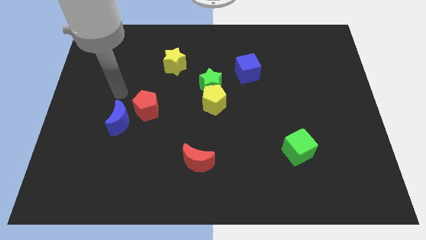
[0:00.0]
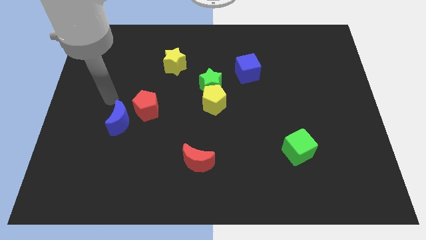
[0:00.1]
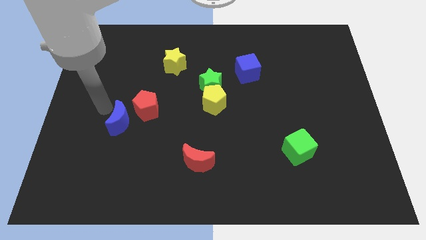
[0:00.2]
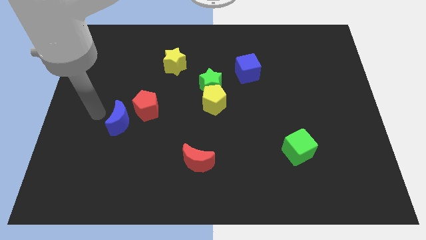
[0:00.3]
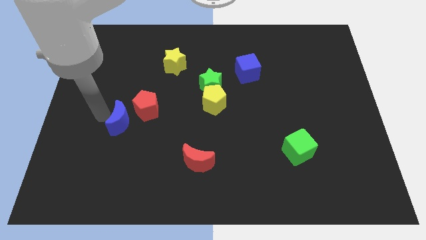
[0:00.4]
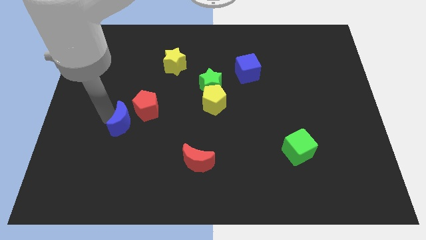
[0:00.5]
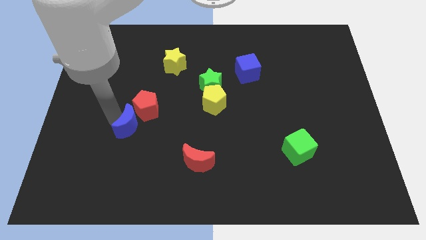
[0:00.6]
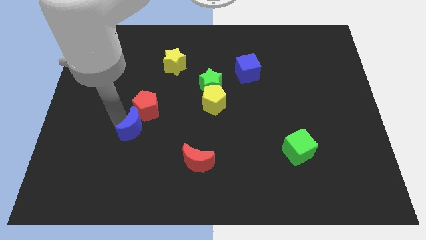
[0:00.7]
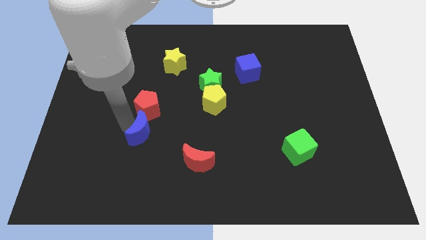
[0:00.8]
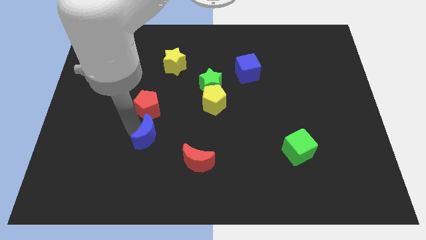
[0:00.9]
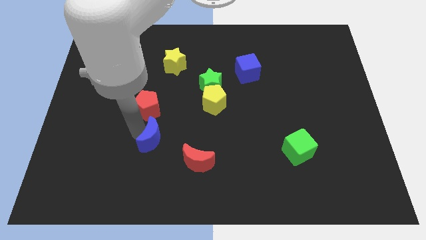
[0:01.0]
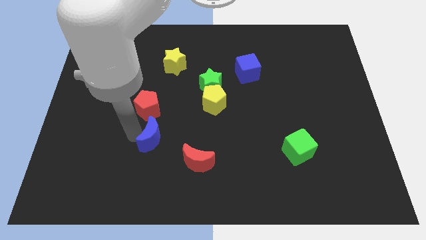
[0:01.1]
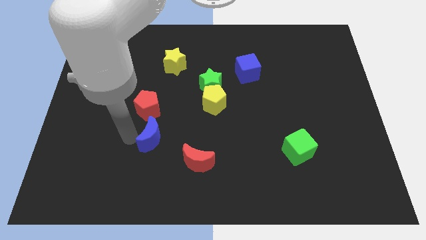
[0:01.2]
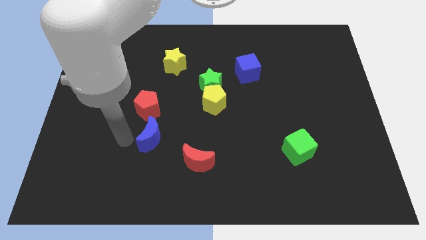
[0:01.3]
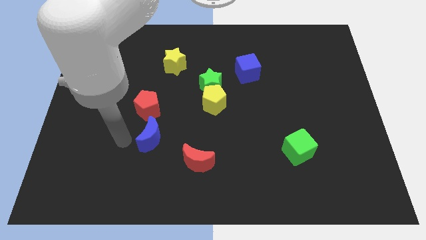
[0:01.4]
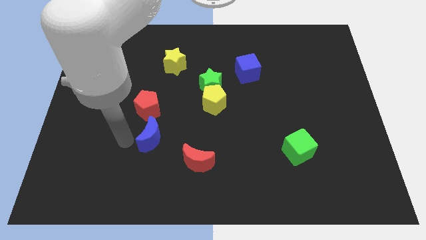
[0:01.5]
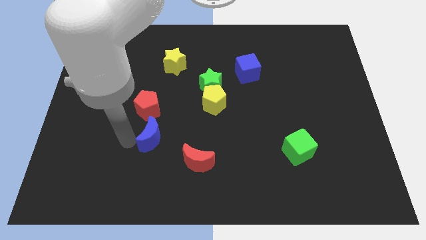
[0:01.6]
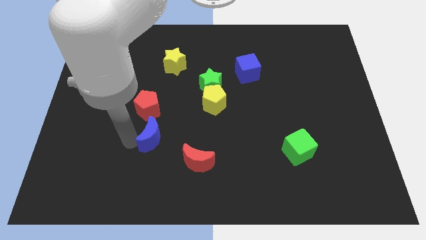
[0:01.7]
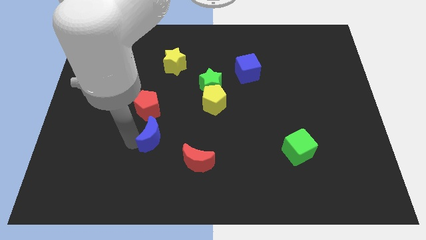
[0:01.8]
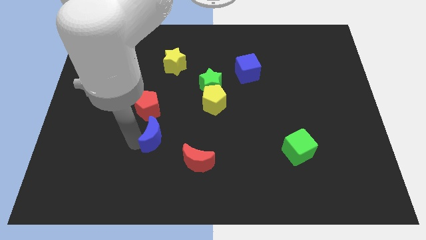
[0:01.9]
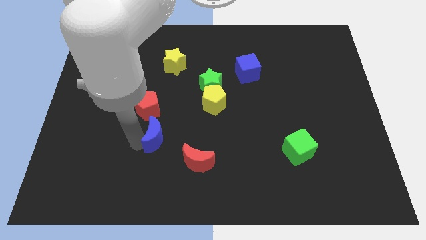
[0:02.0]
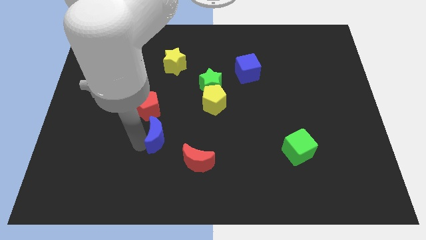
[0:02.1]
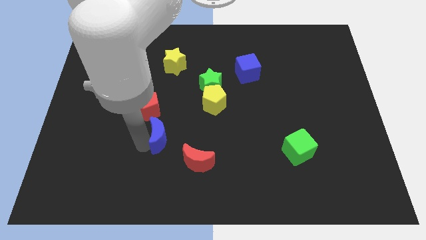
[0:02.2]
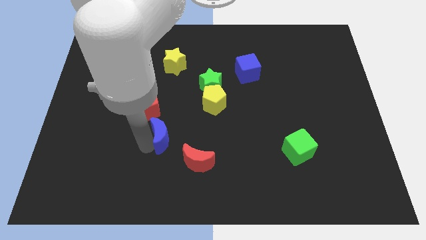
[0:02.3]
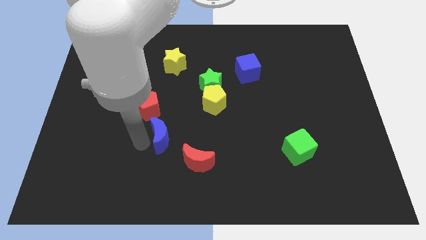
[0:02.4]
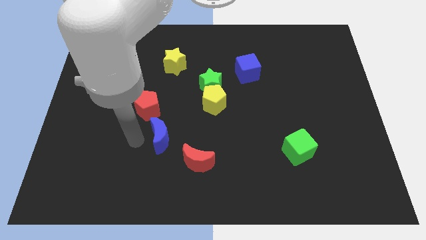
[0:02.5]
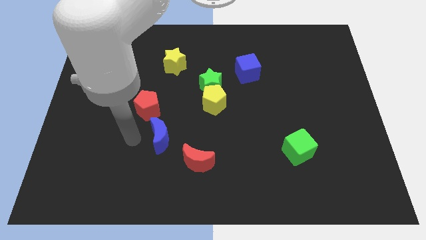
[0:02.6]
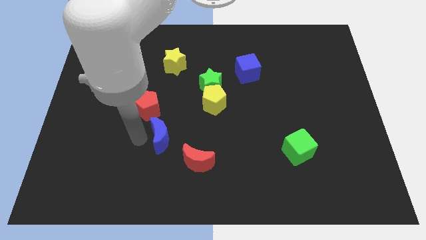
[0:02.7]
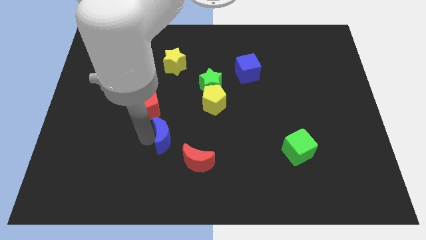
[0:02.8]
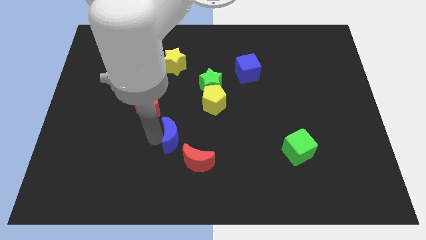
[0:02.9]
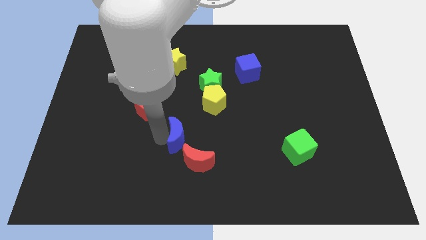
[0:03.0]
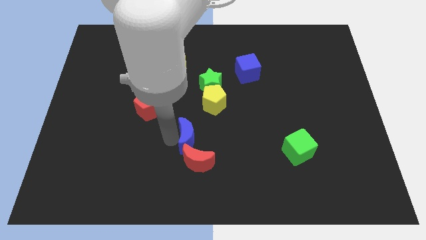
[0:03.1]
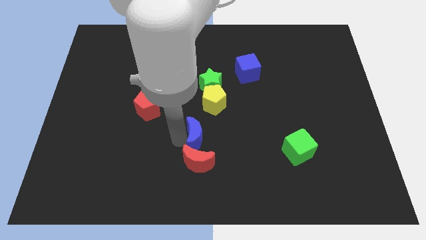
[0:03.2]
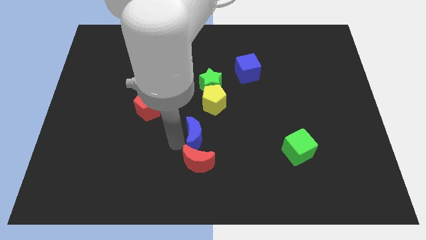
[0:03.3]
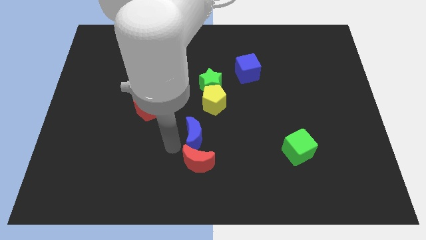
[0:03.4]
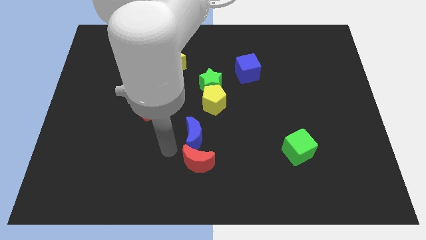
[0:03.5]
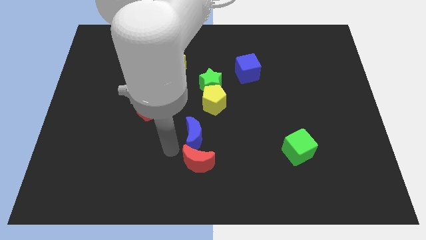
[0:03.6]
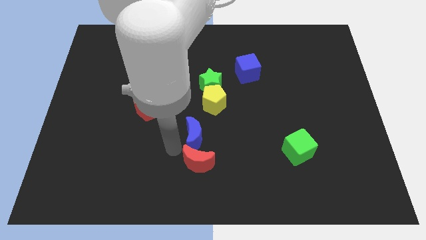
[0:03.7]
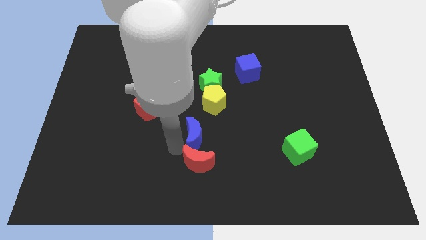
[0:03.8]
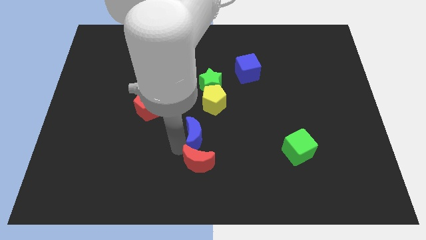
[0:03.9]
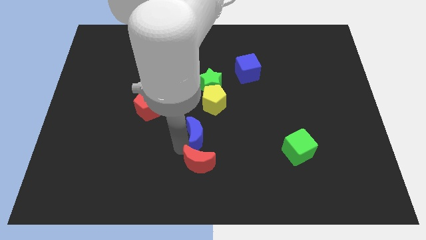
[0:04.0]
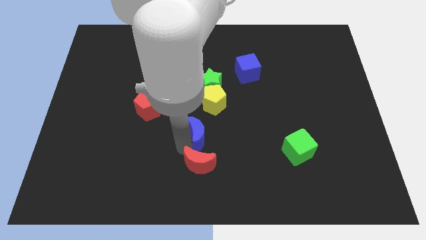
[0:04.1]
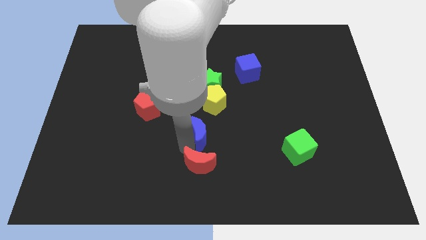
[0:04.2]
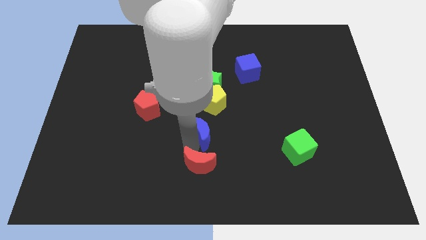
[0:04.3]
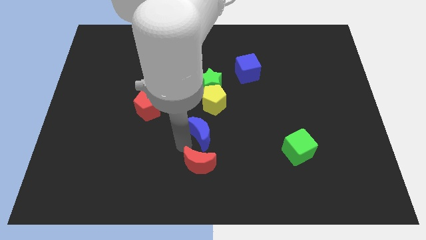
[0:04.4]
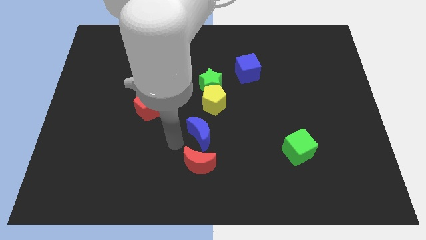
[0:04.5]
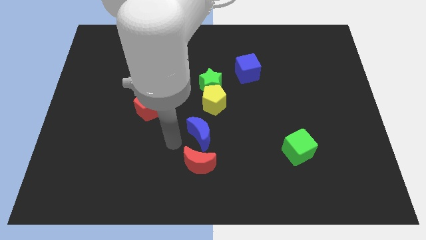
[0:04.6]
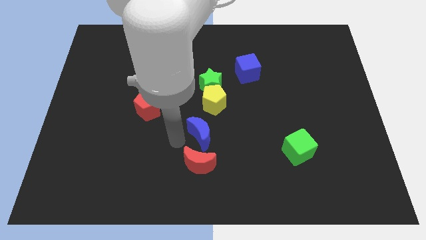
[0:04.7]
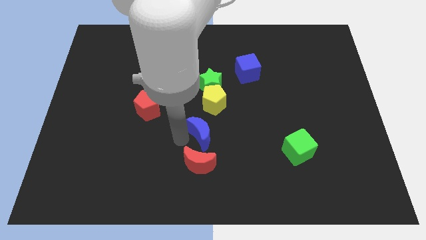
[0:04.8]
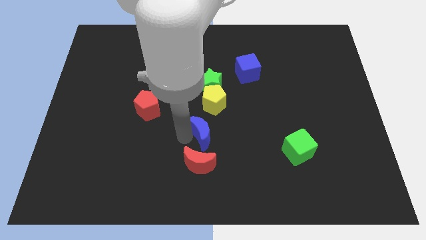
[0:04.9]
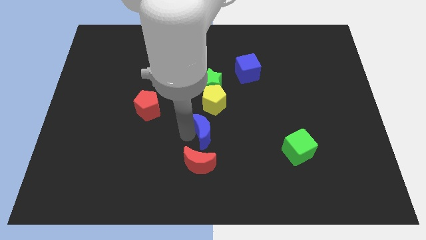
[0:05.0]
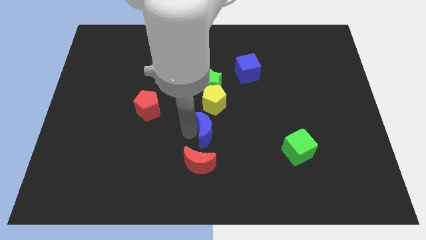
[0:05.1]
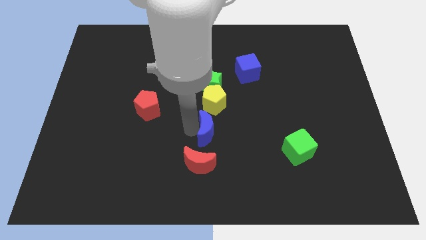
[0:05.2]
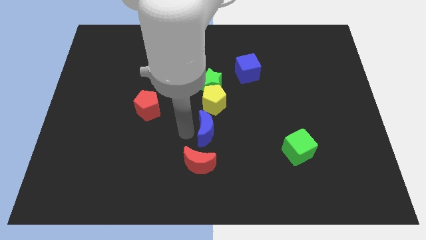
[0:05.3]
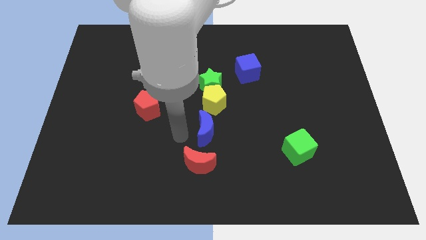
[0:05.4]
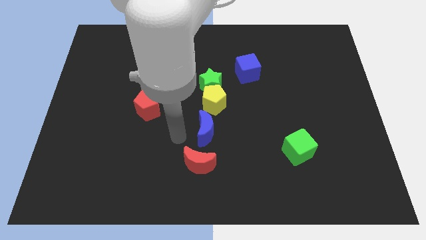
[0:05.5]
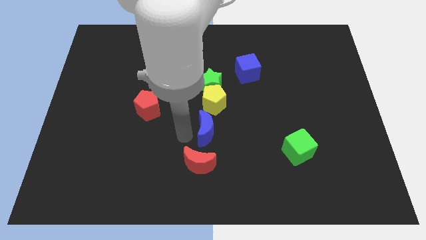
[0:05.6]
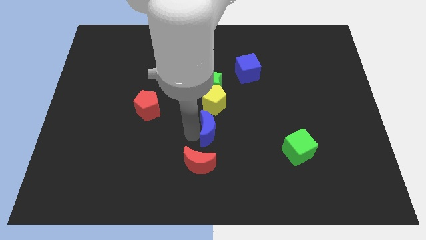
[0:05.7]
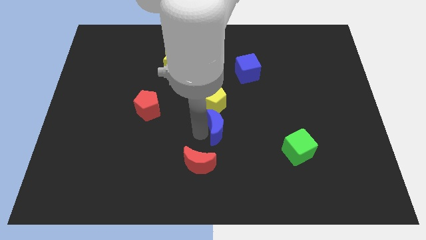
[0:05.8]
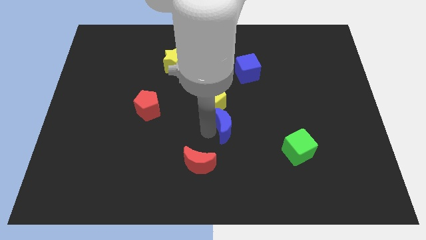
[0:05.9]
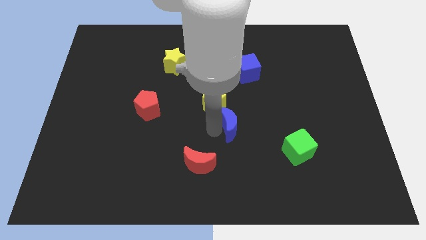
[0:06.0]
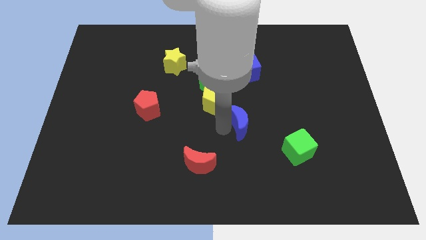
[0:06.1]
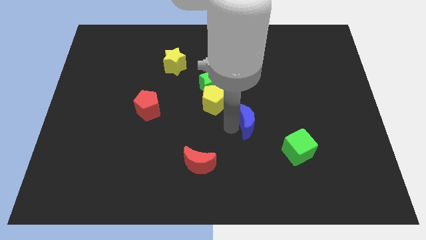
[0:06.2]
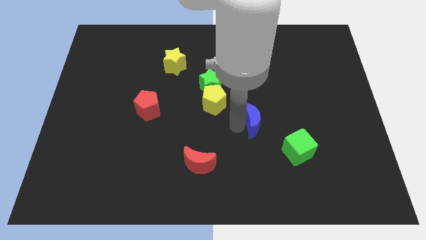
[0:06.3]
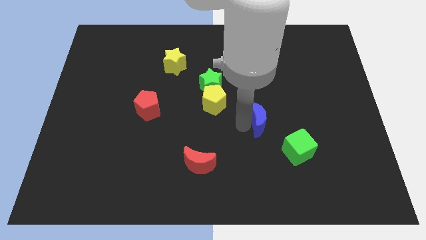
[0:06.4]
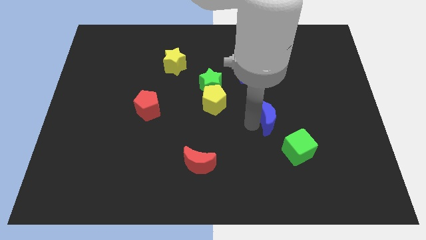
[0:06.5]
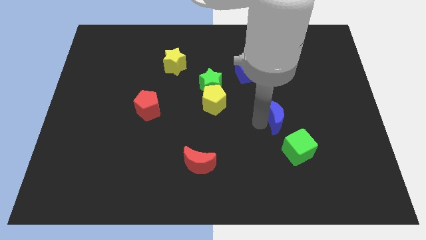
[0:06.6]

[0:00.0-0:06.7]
push the blue moon above the green cube
